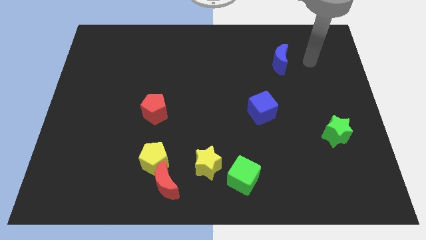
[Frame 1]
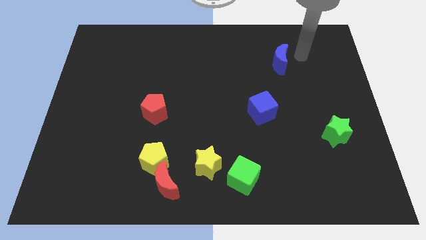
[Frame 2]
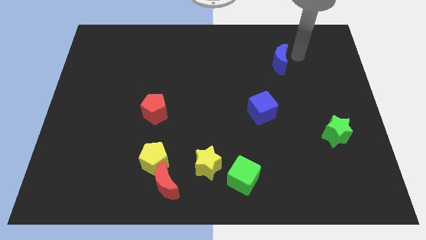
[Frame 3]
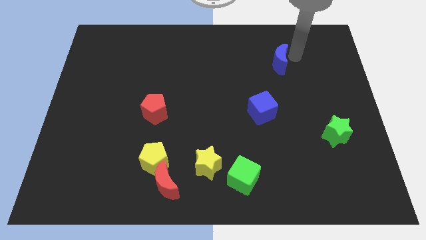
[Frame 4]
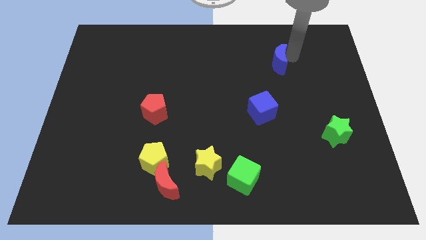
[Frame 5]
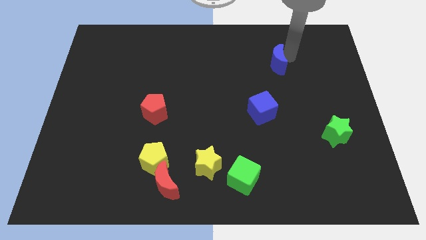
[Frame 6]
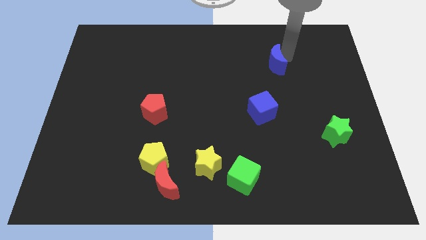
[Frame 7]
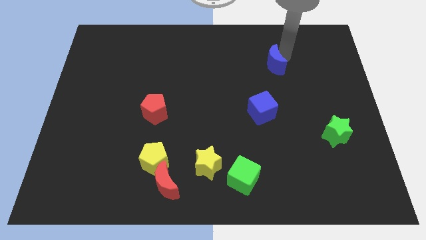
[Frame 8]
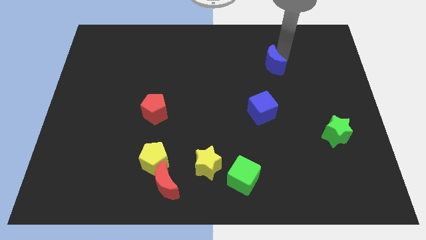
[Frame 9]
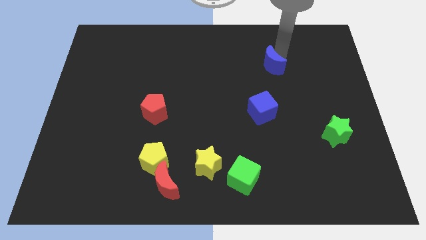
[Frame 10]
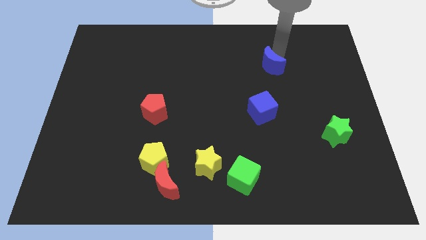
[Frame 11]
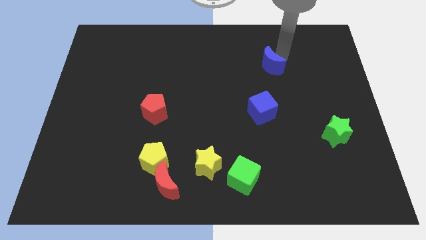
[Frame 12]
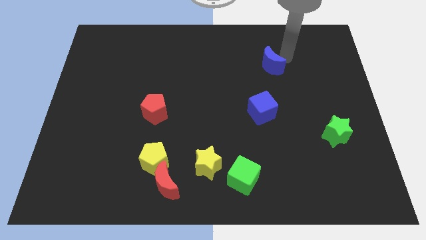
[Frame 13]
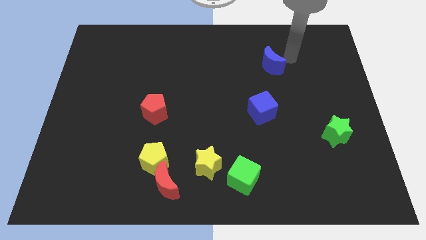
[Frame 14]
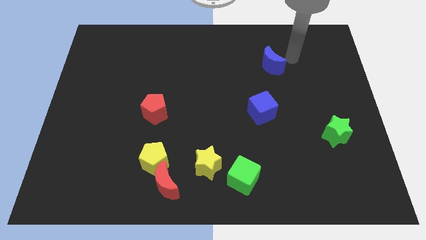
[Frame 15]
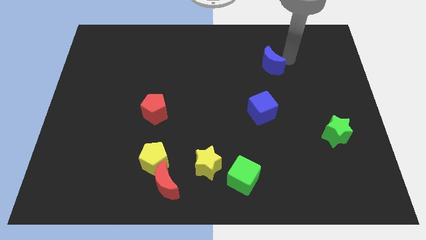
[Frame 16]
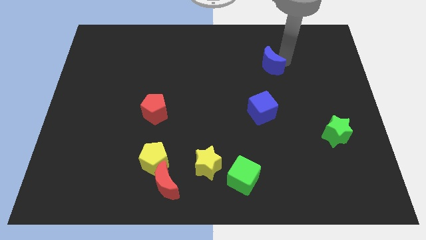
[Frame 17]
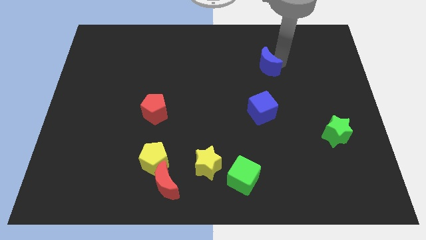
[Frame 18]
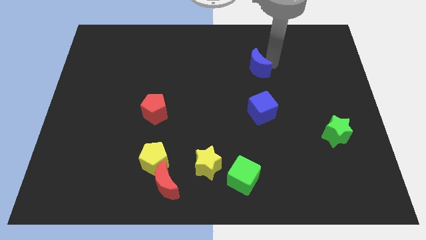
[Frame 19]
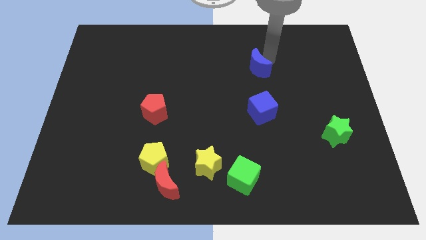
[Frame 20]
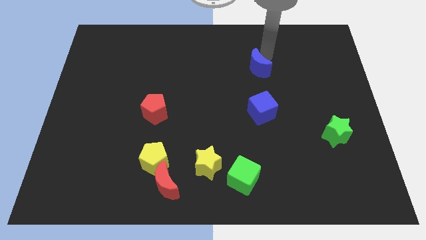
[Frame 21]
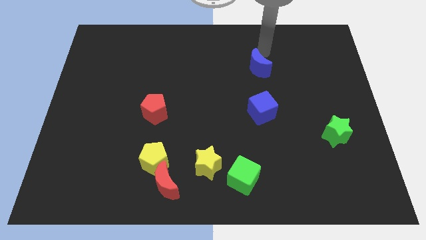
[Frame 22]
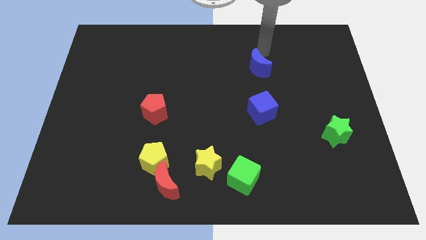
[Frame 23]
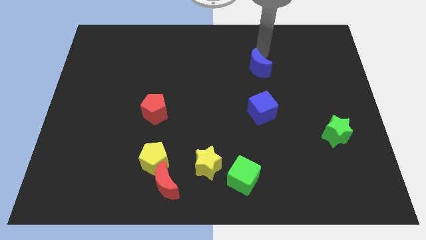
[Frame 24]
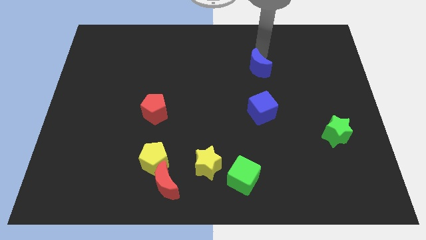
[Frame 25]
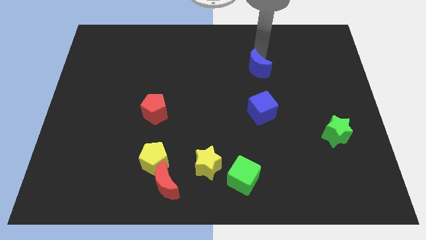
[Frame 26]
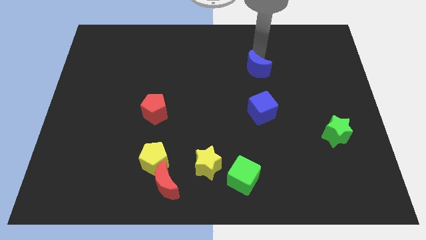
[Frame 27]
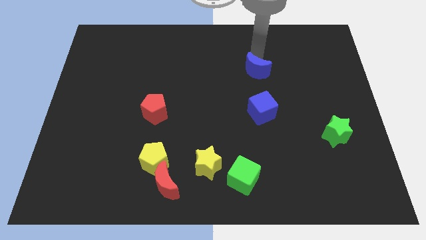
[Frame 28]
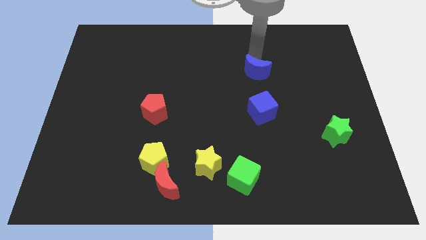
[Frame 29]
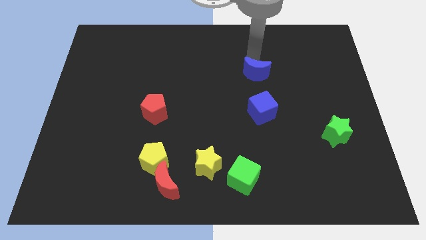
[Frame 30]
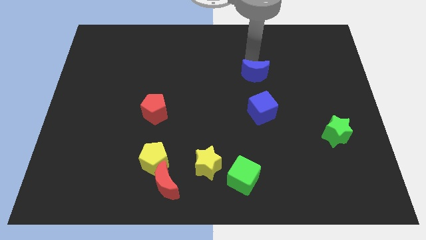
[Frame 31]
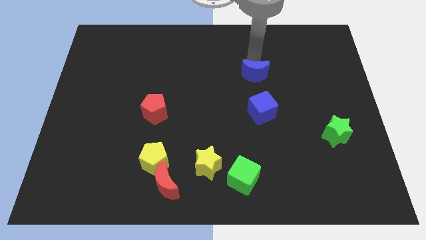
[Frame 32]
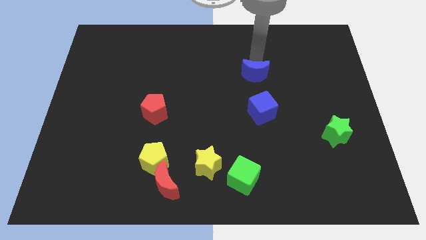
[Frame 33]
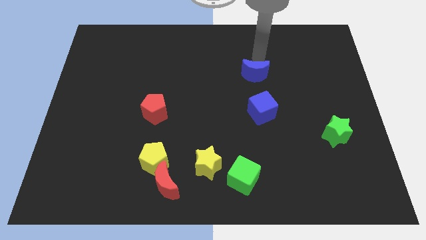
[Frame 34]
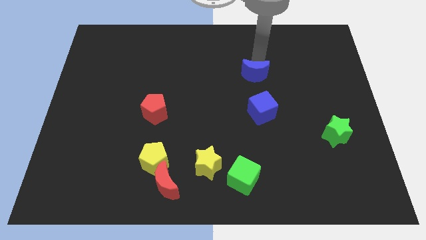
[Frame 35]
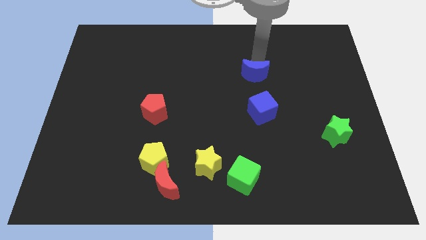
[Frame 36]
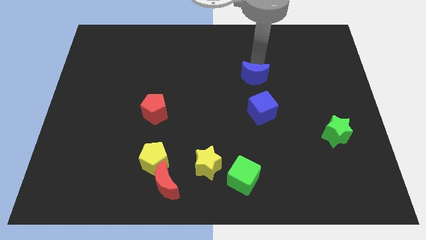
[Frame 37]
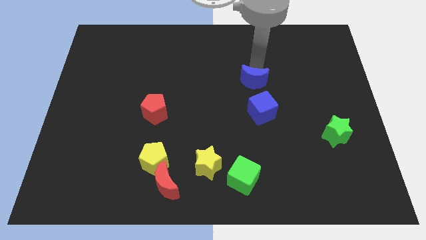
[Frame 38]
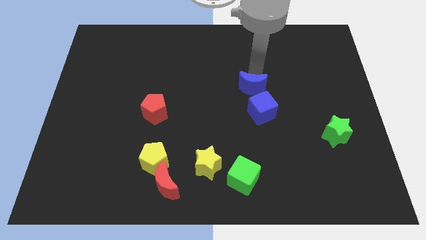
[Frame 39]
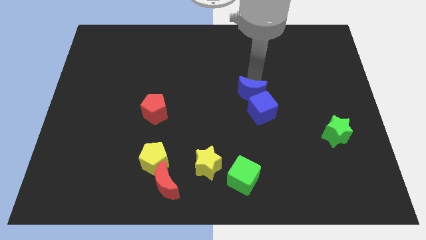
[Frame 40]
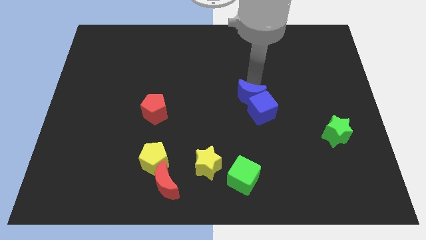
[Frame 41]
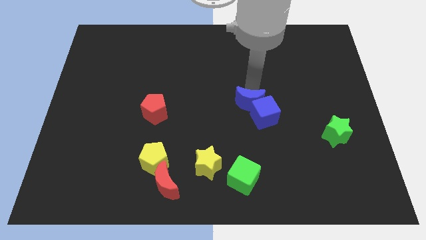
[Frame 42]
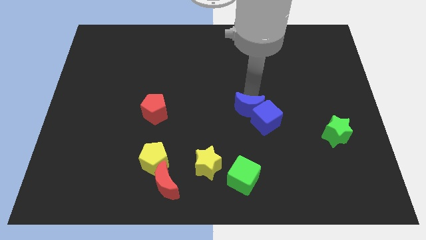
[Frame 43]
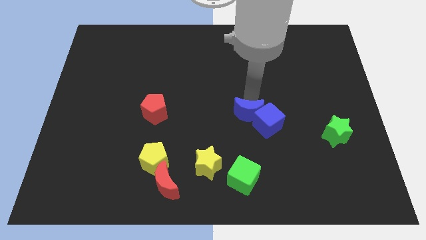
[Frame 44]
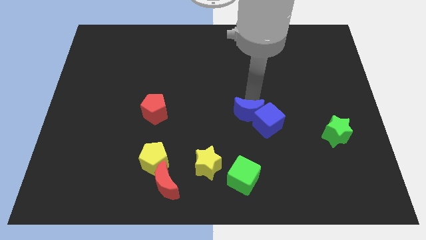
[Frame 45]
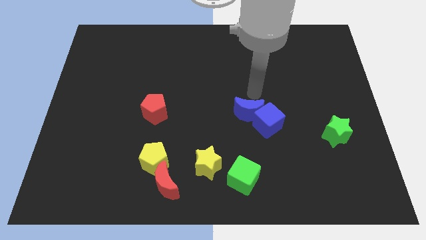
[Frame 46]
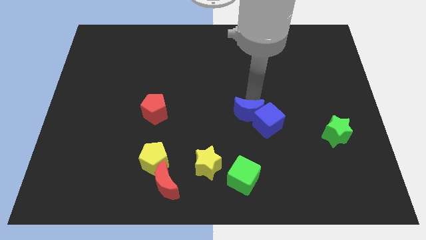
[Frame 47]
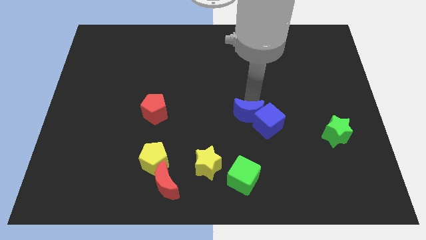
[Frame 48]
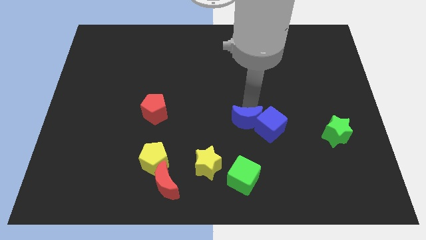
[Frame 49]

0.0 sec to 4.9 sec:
put the blue moon to the top side of the green cube

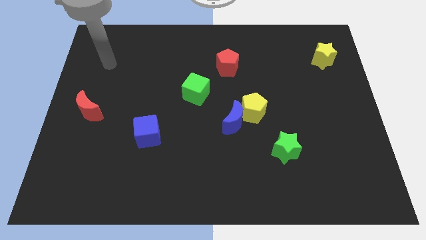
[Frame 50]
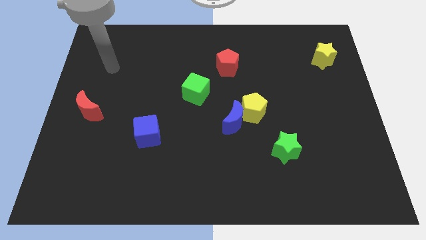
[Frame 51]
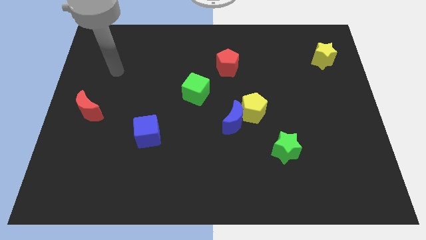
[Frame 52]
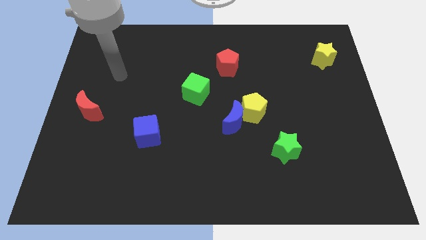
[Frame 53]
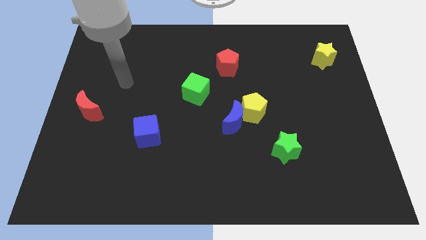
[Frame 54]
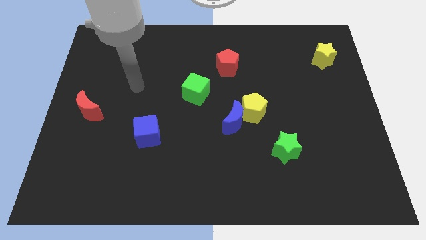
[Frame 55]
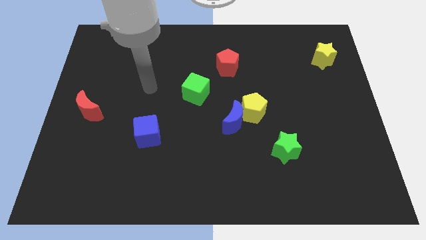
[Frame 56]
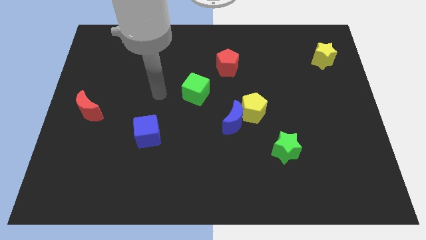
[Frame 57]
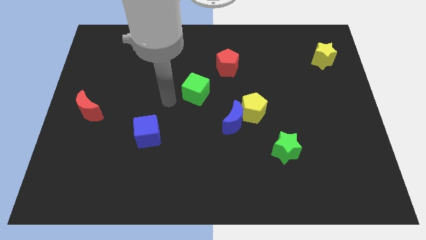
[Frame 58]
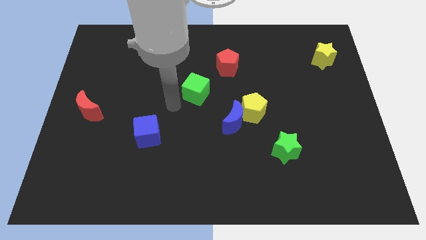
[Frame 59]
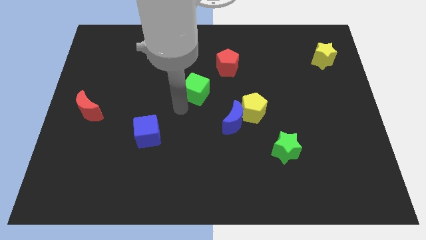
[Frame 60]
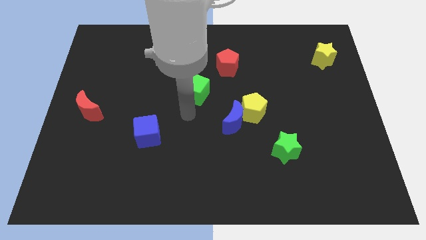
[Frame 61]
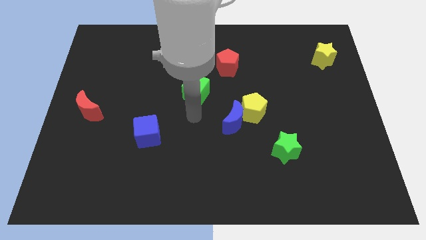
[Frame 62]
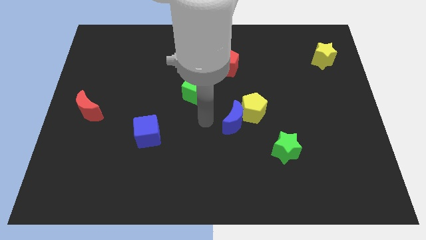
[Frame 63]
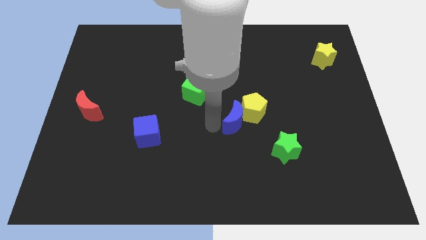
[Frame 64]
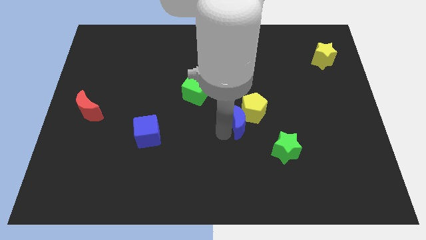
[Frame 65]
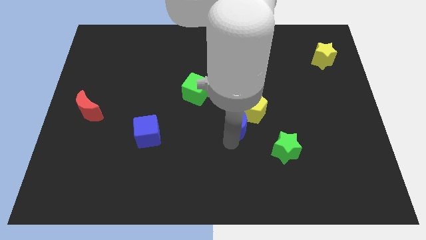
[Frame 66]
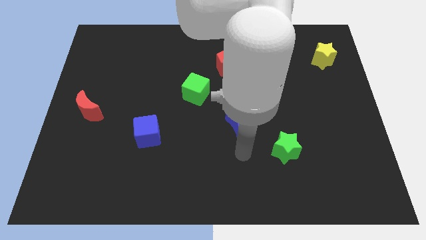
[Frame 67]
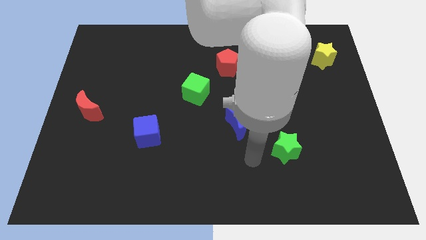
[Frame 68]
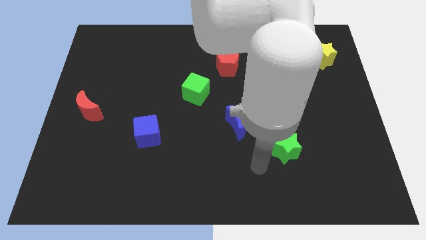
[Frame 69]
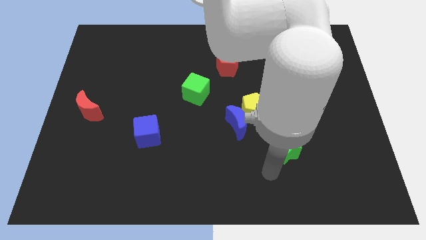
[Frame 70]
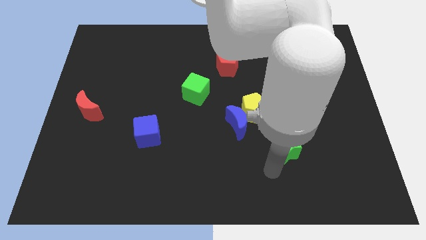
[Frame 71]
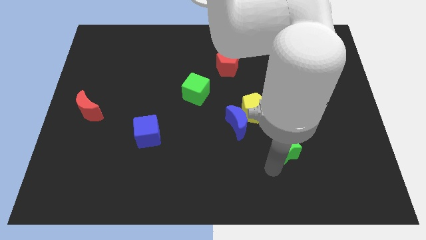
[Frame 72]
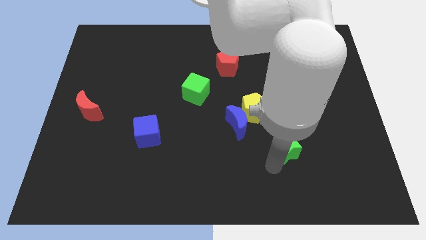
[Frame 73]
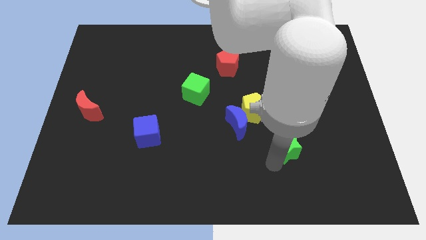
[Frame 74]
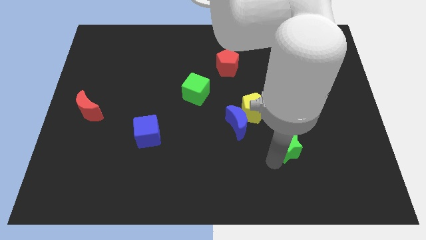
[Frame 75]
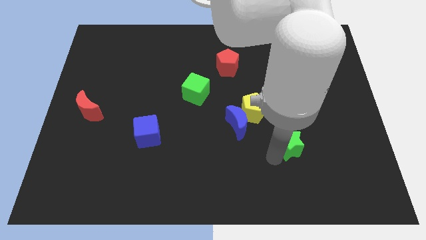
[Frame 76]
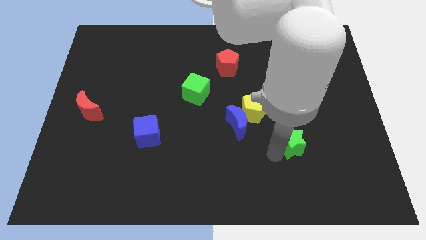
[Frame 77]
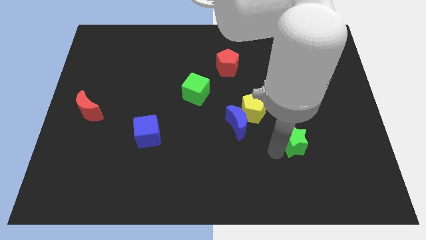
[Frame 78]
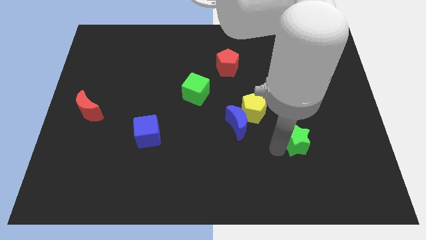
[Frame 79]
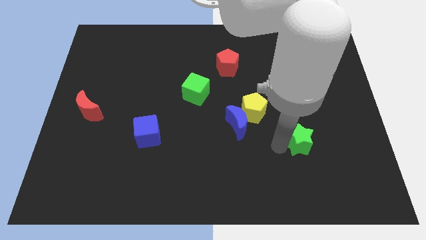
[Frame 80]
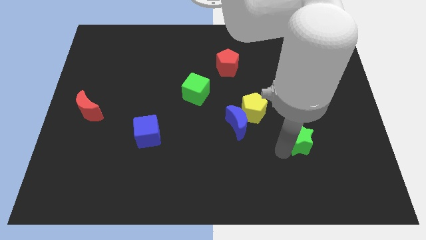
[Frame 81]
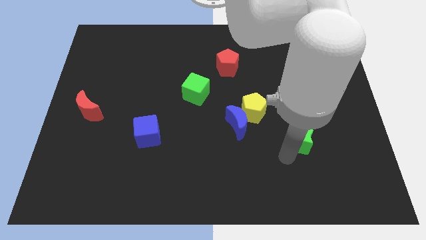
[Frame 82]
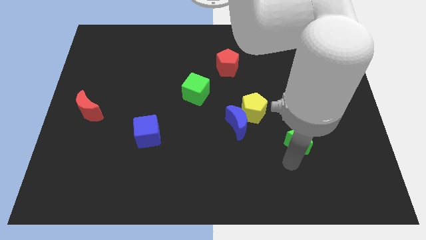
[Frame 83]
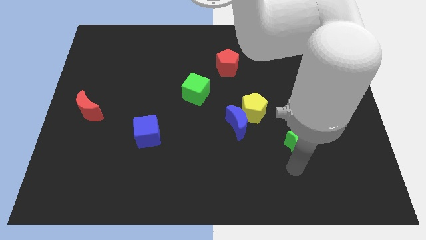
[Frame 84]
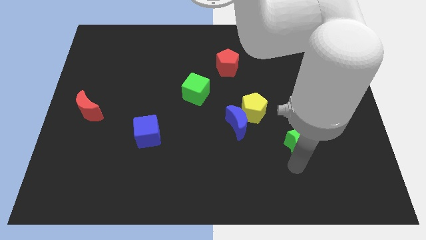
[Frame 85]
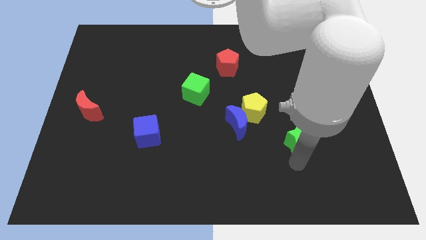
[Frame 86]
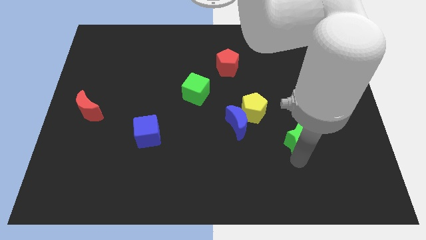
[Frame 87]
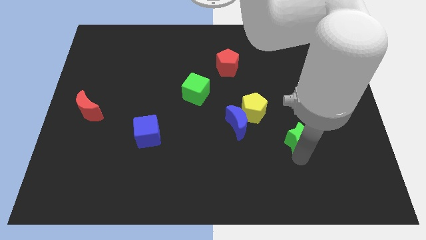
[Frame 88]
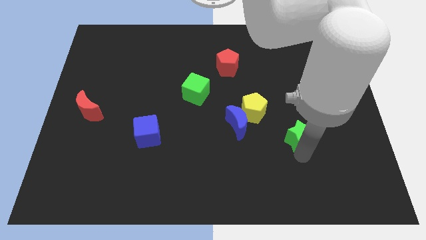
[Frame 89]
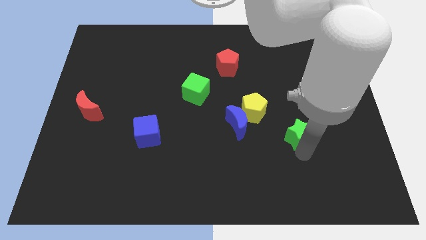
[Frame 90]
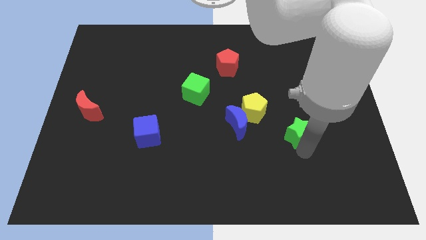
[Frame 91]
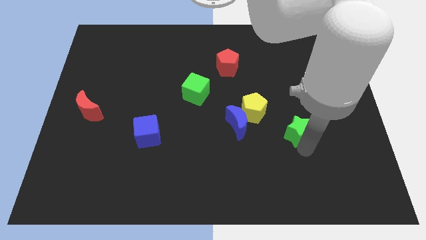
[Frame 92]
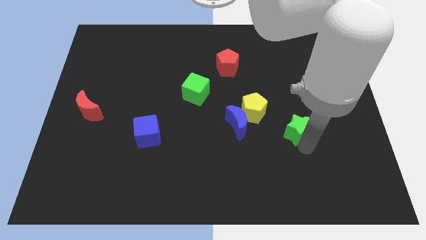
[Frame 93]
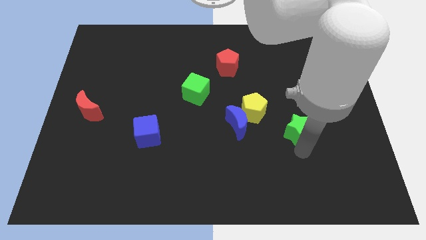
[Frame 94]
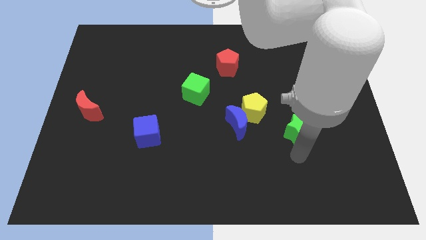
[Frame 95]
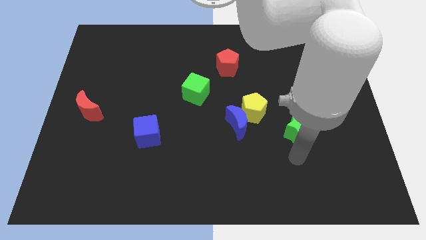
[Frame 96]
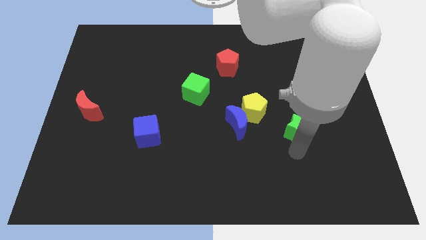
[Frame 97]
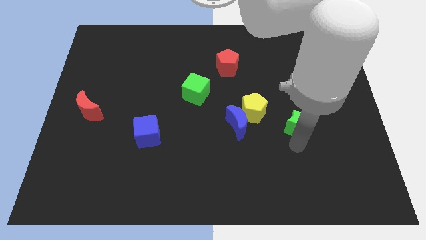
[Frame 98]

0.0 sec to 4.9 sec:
slide the green star to the right of the yellow pentagon
